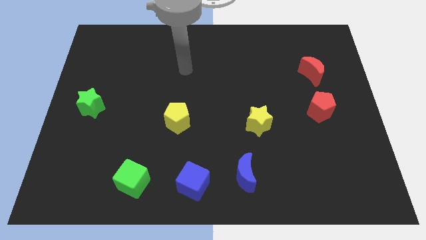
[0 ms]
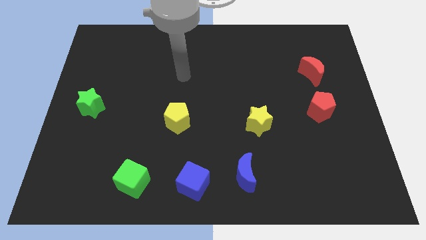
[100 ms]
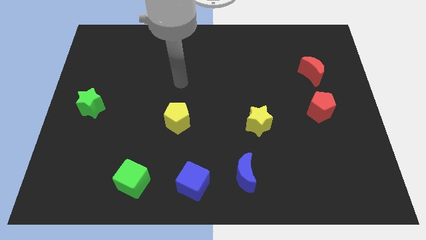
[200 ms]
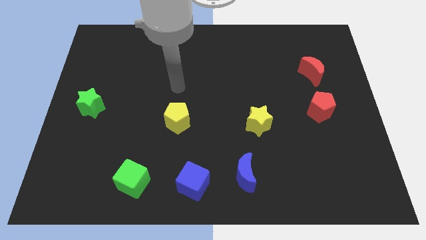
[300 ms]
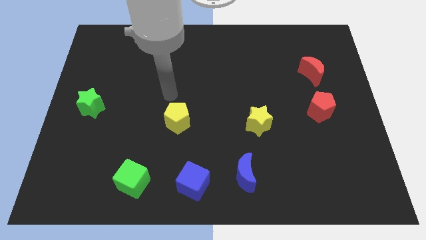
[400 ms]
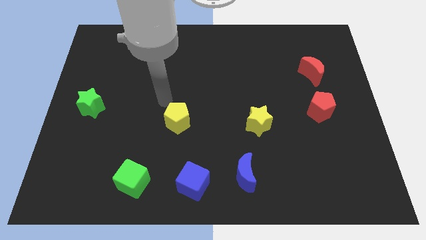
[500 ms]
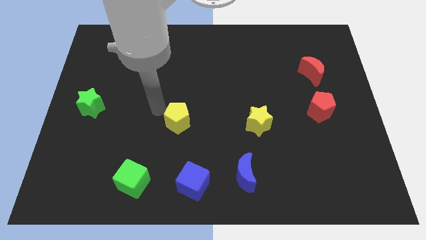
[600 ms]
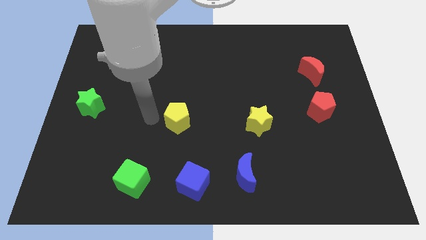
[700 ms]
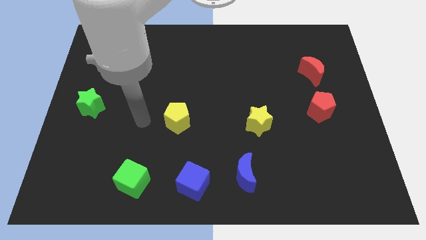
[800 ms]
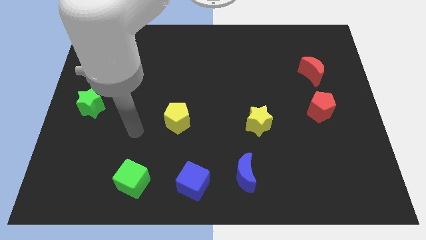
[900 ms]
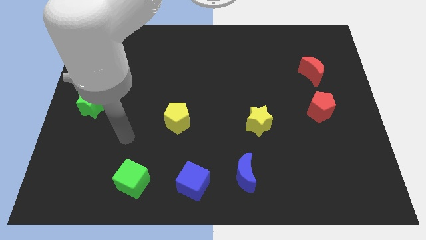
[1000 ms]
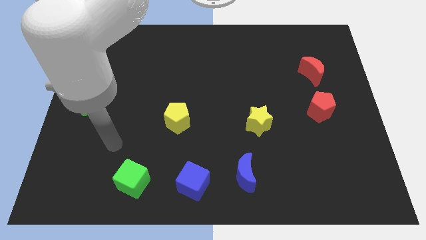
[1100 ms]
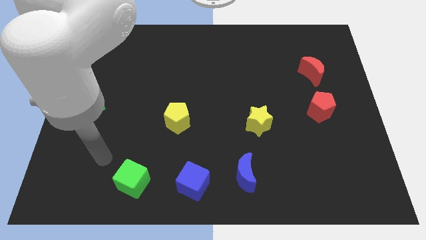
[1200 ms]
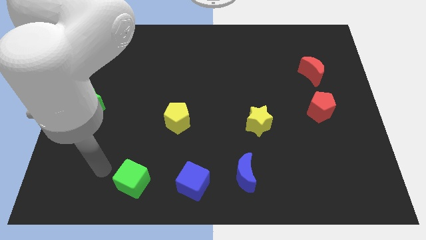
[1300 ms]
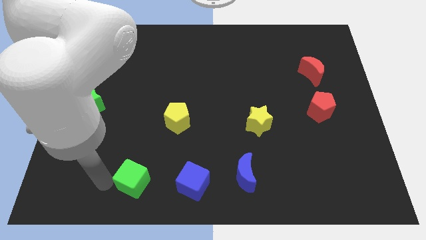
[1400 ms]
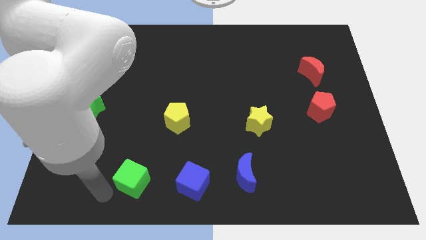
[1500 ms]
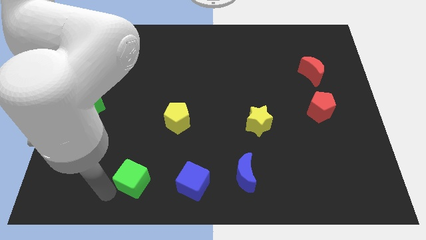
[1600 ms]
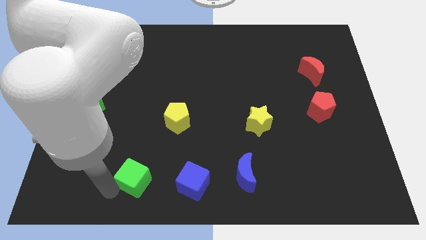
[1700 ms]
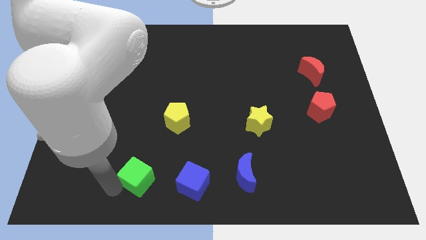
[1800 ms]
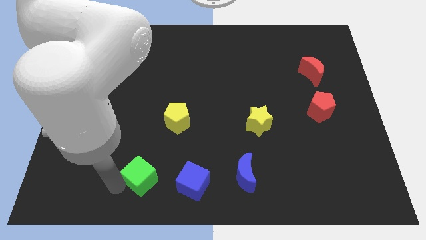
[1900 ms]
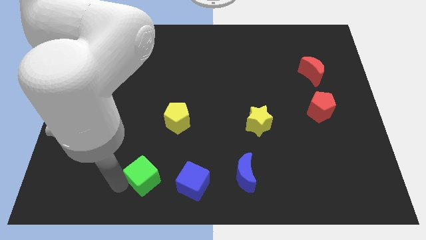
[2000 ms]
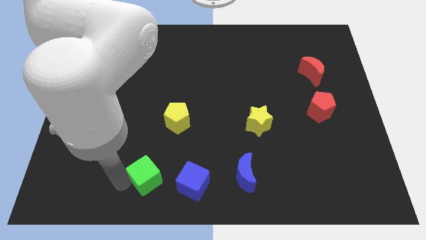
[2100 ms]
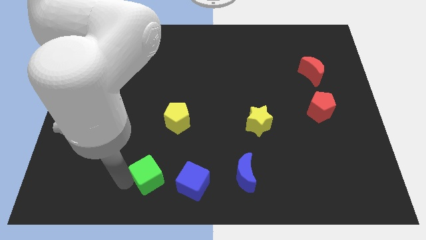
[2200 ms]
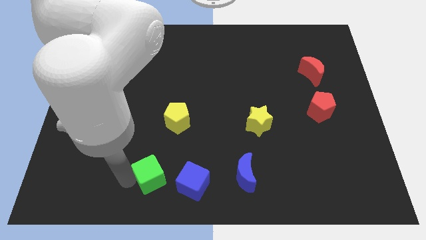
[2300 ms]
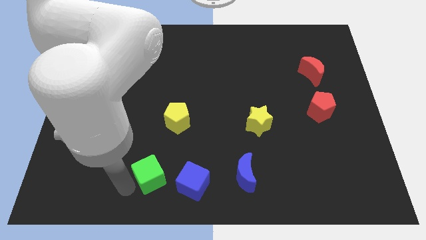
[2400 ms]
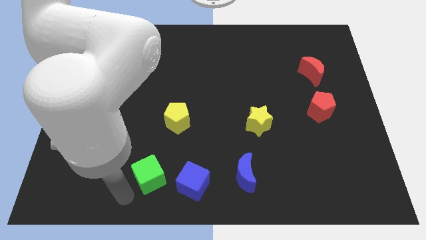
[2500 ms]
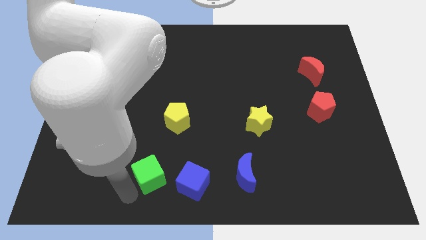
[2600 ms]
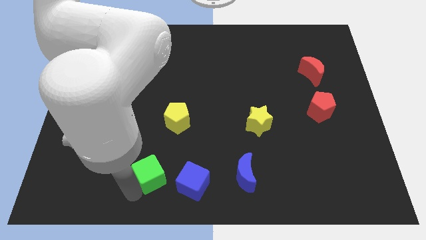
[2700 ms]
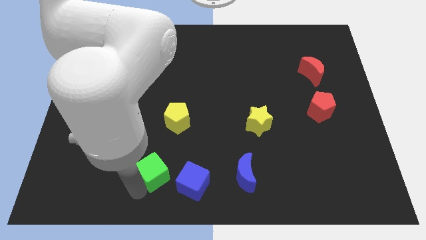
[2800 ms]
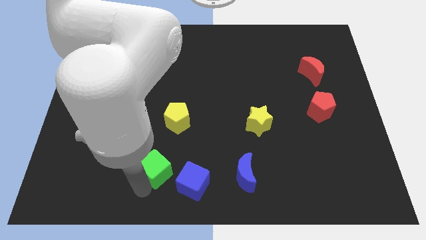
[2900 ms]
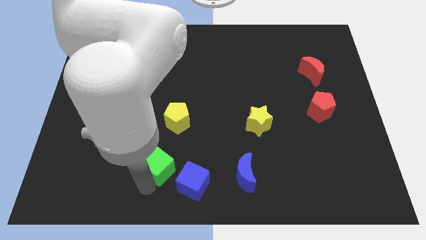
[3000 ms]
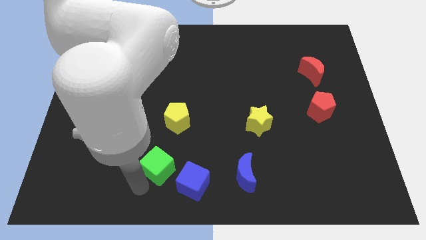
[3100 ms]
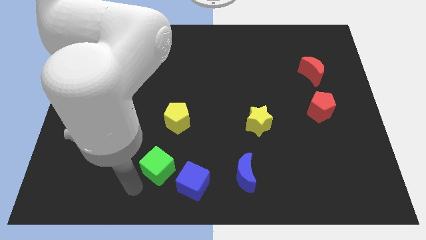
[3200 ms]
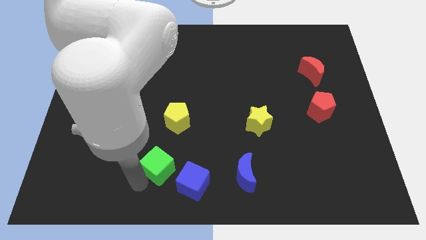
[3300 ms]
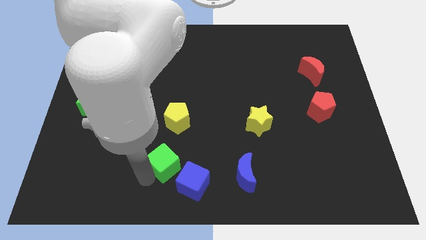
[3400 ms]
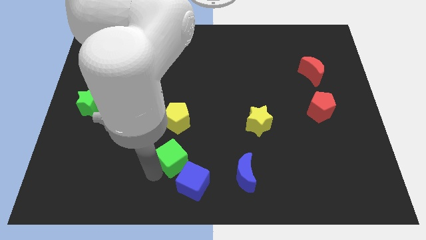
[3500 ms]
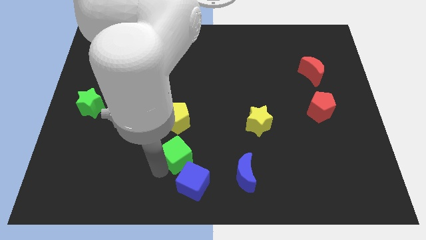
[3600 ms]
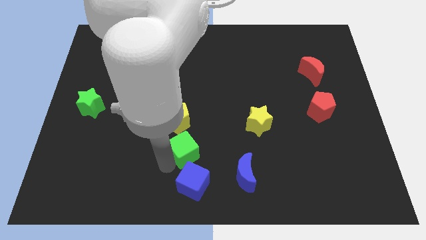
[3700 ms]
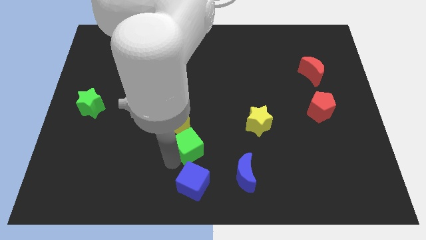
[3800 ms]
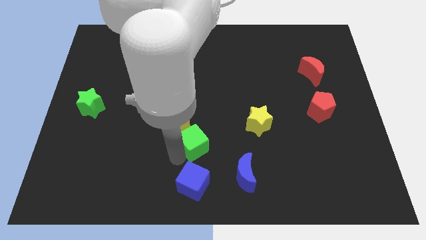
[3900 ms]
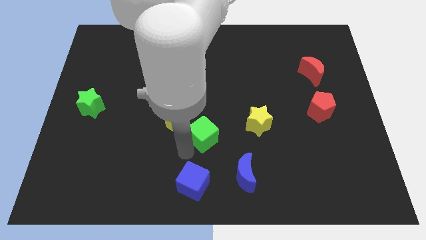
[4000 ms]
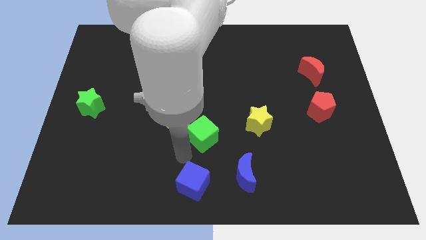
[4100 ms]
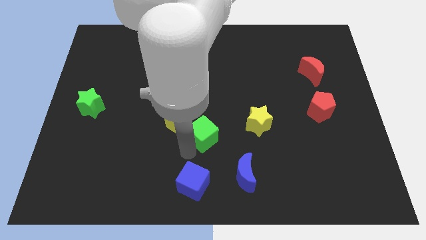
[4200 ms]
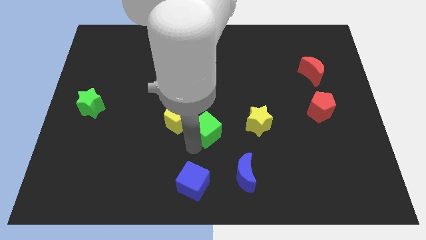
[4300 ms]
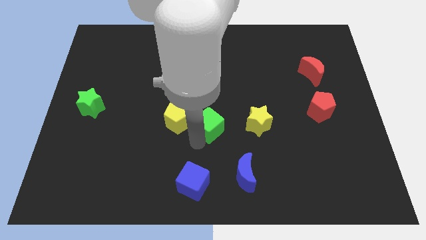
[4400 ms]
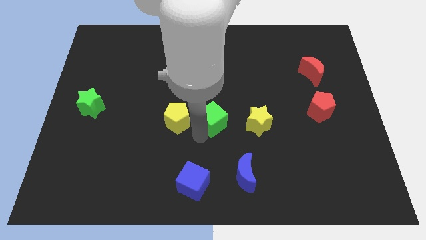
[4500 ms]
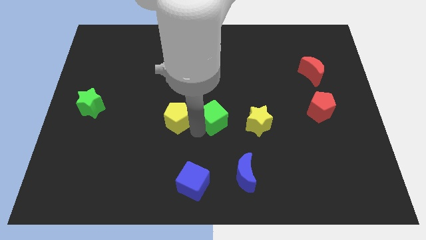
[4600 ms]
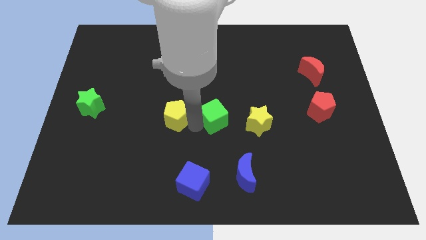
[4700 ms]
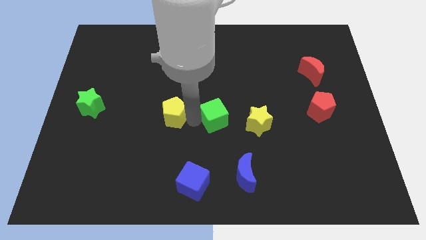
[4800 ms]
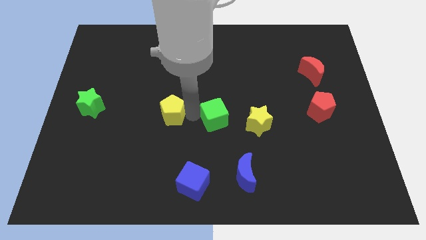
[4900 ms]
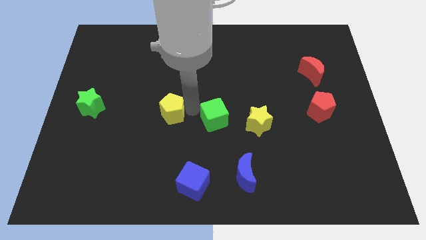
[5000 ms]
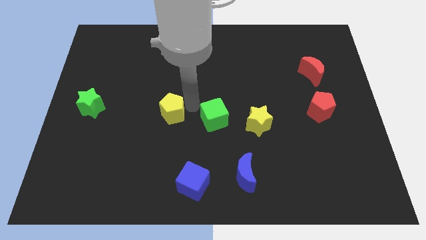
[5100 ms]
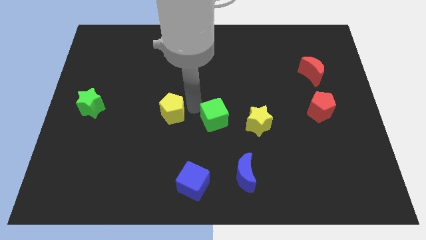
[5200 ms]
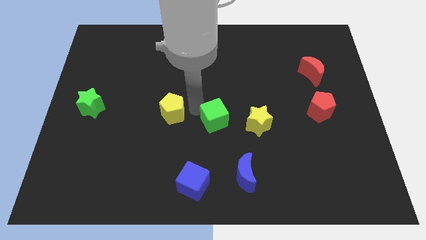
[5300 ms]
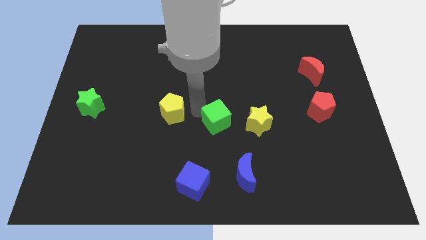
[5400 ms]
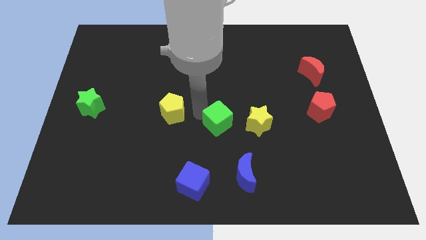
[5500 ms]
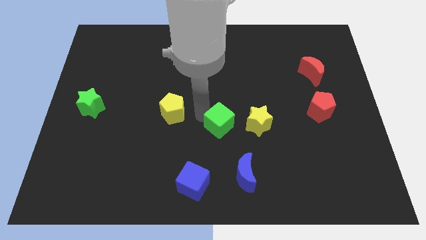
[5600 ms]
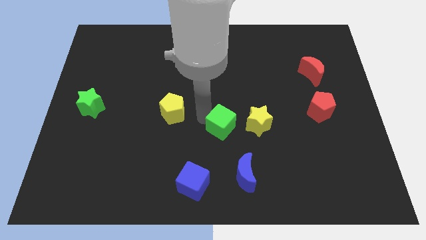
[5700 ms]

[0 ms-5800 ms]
put the green cube to the top of the blue moon

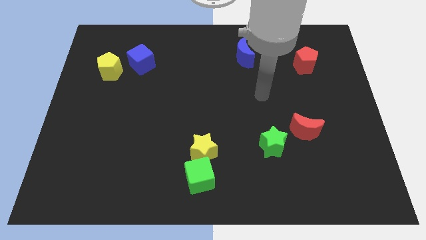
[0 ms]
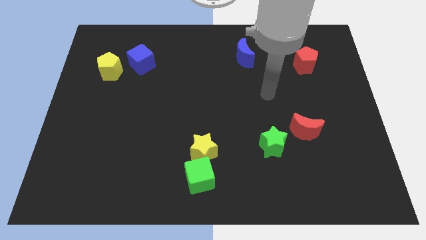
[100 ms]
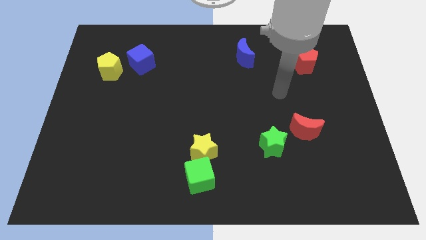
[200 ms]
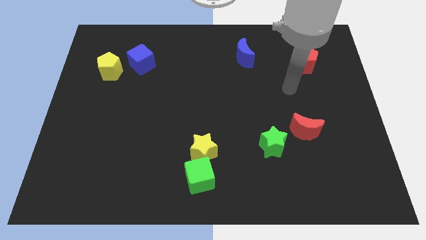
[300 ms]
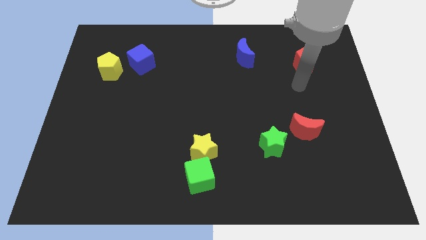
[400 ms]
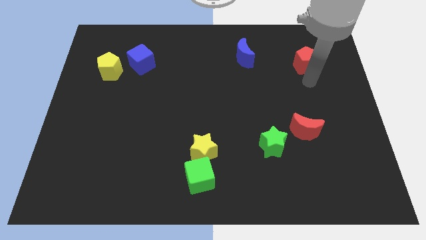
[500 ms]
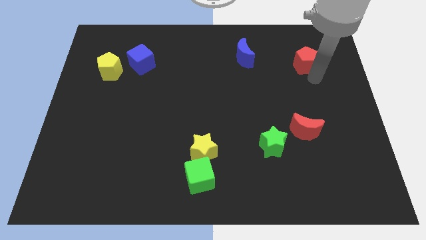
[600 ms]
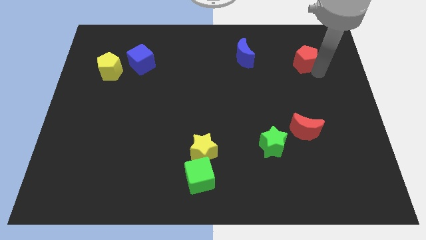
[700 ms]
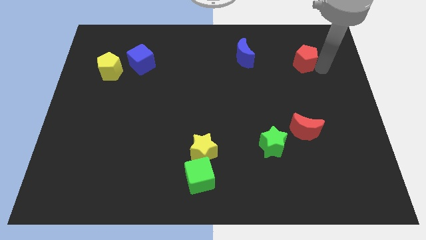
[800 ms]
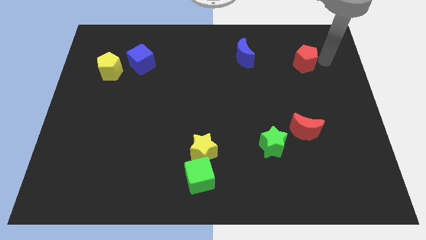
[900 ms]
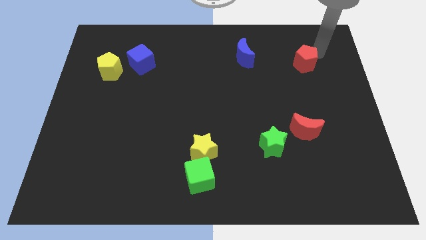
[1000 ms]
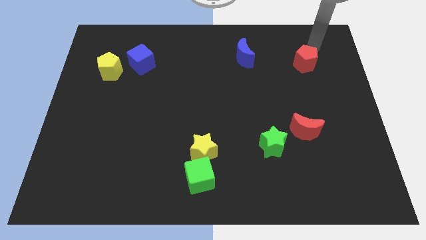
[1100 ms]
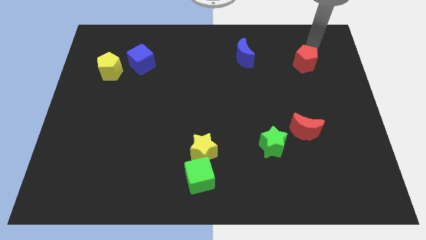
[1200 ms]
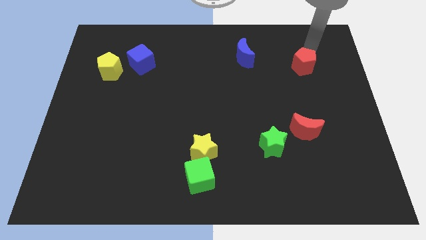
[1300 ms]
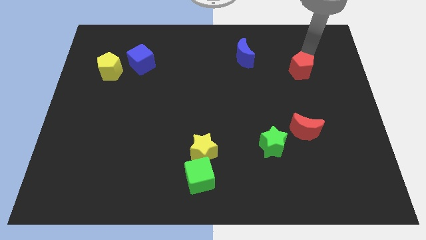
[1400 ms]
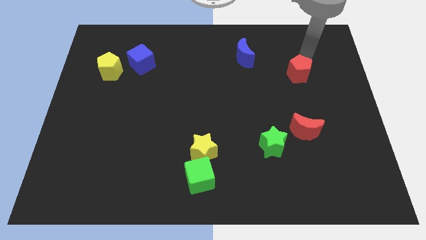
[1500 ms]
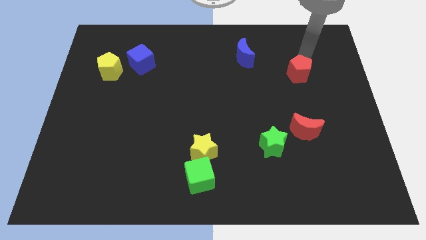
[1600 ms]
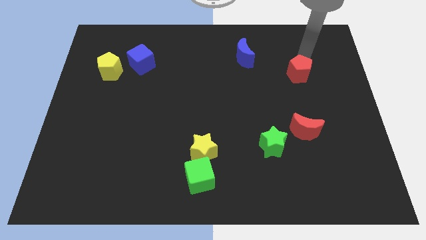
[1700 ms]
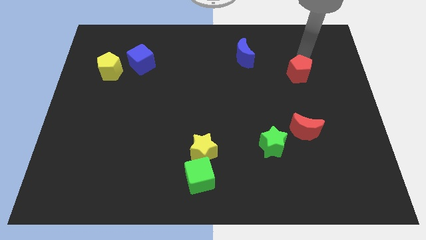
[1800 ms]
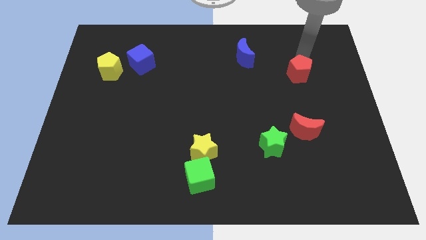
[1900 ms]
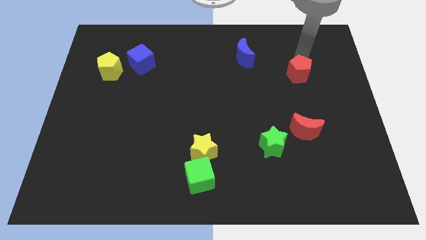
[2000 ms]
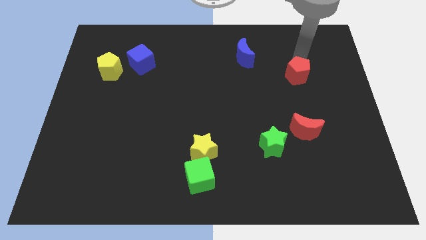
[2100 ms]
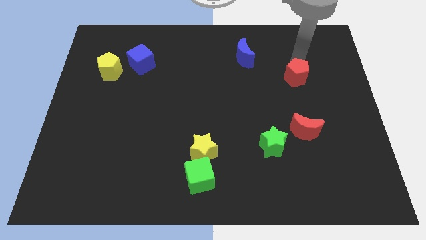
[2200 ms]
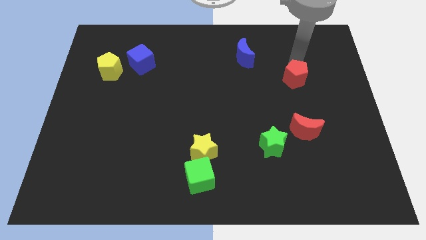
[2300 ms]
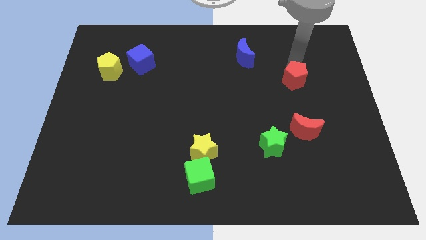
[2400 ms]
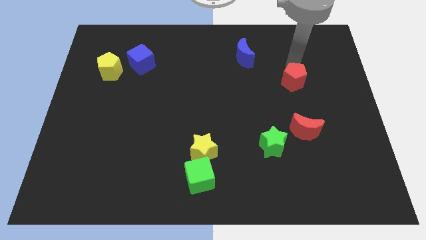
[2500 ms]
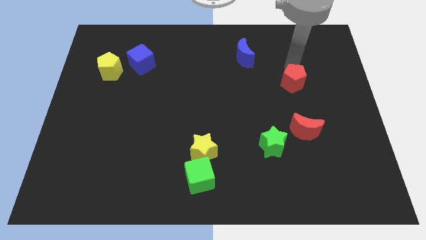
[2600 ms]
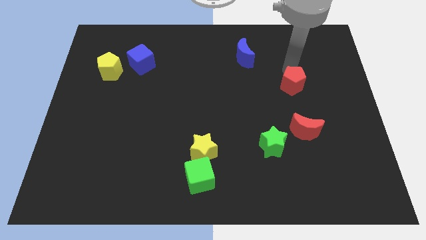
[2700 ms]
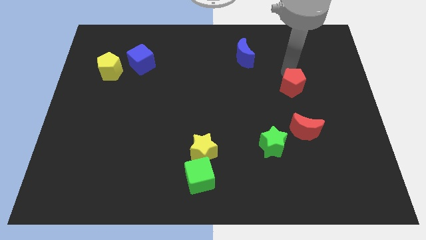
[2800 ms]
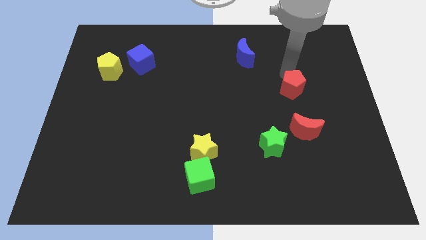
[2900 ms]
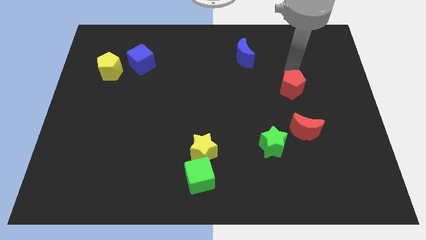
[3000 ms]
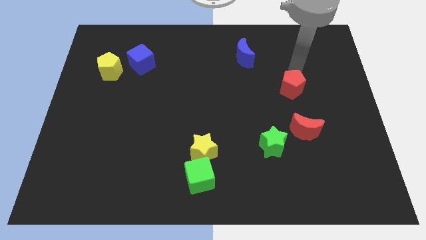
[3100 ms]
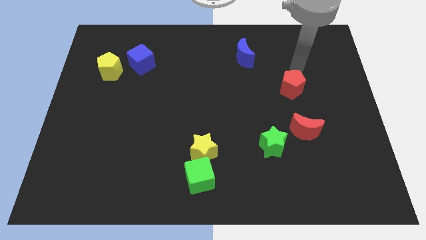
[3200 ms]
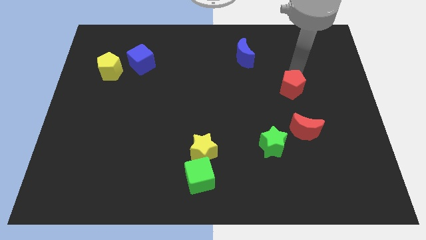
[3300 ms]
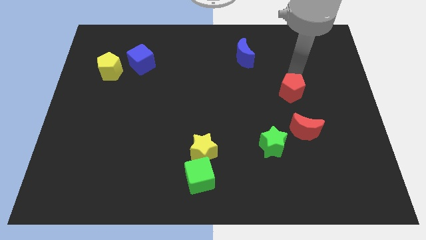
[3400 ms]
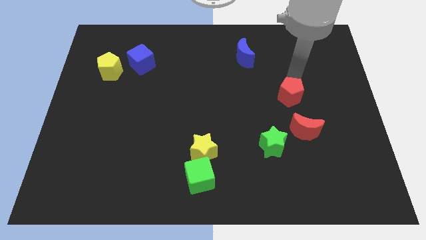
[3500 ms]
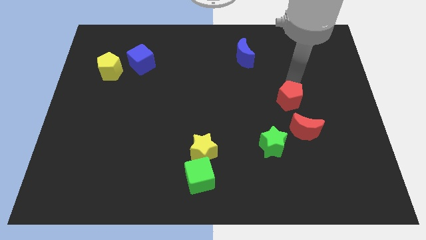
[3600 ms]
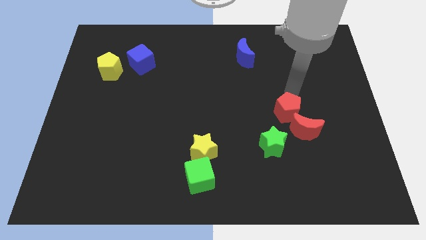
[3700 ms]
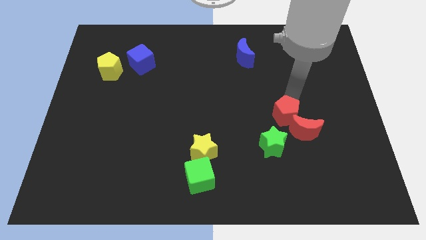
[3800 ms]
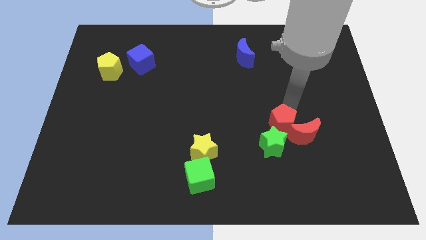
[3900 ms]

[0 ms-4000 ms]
slide the red pentagon to the left side of the red moon
